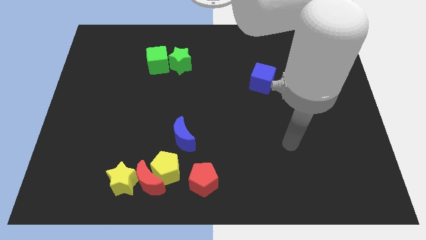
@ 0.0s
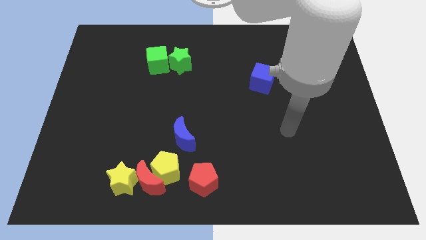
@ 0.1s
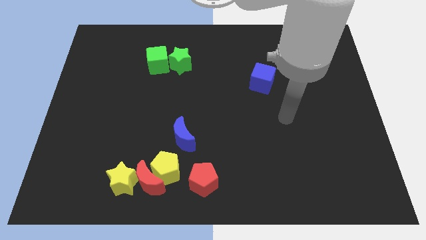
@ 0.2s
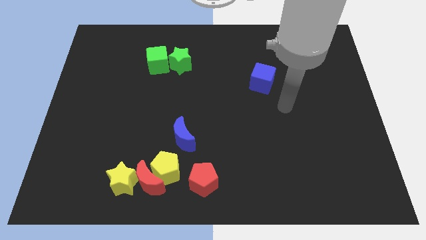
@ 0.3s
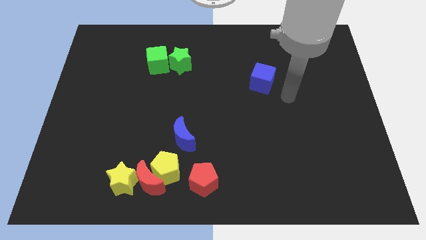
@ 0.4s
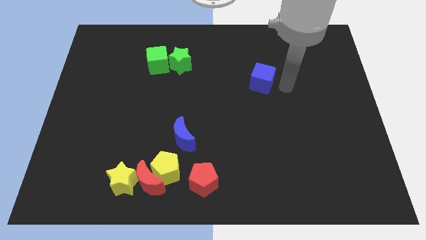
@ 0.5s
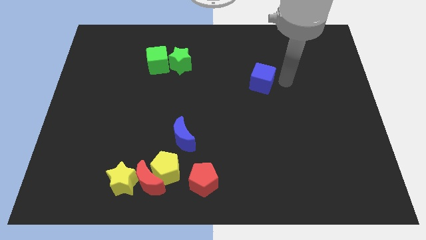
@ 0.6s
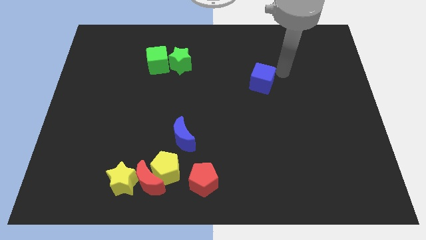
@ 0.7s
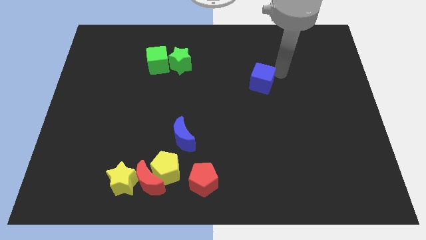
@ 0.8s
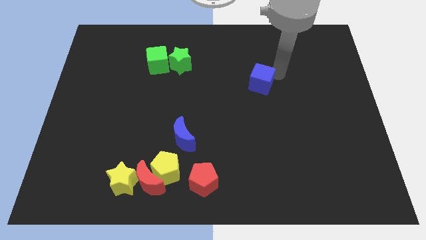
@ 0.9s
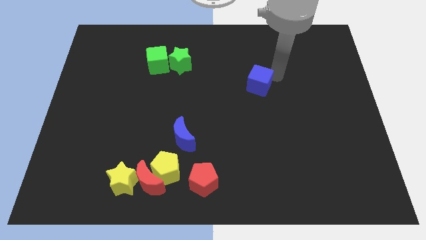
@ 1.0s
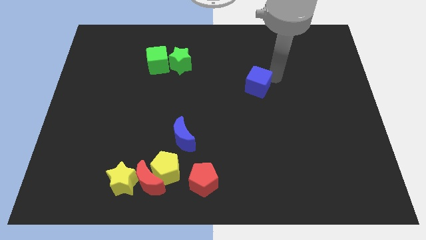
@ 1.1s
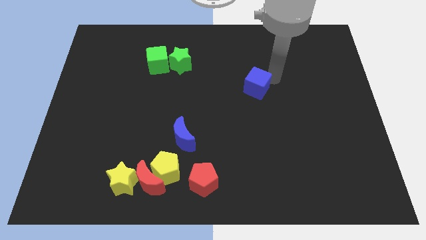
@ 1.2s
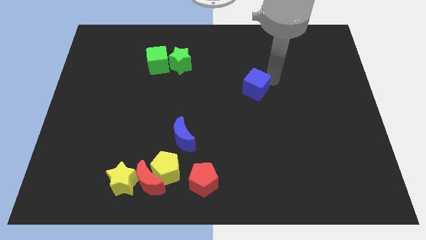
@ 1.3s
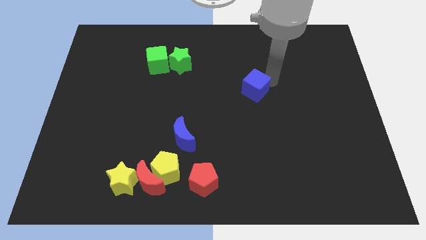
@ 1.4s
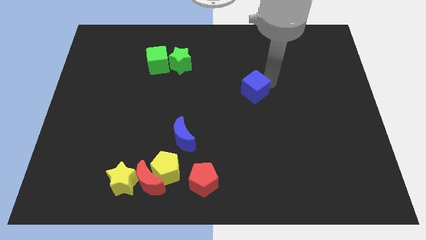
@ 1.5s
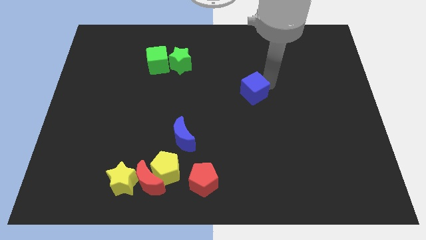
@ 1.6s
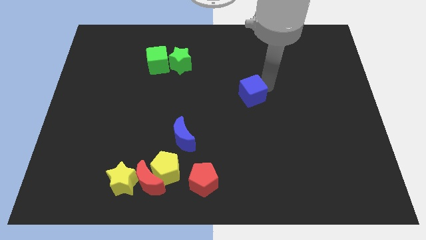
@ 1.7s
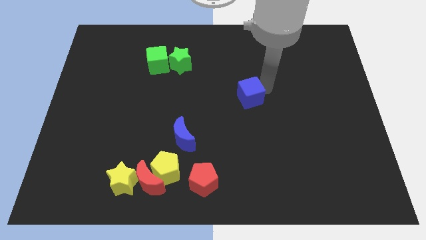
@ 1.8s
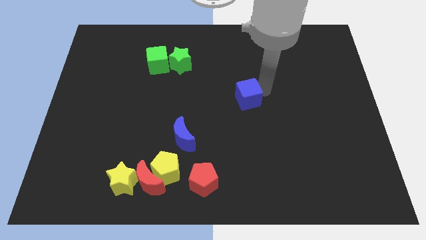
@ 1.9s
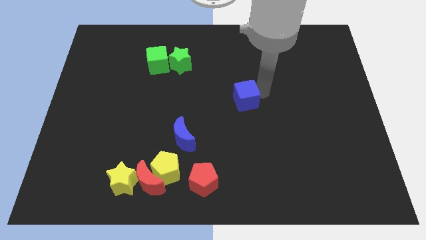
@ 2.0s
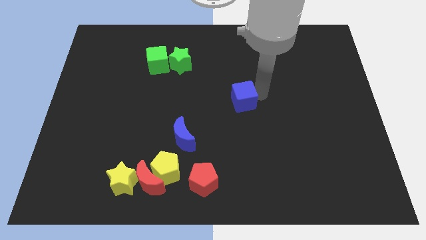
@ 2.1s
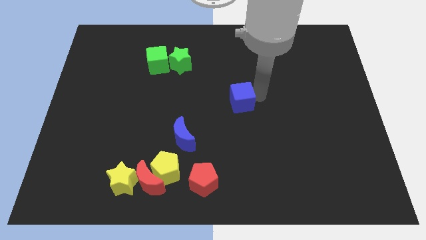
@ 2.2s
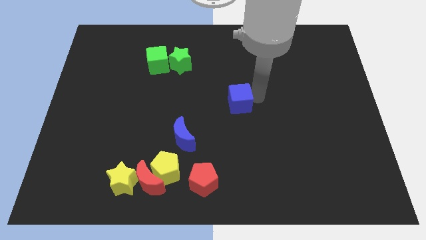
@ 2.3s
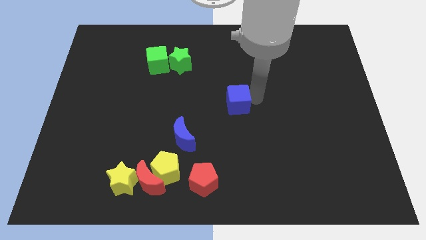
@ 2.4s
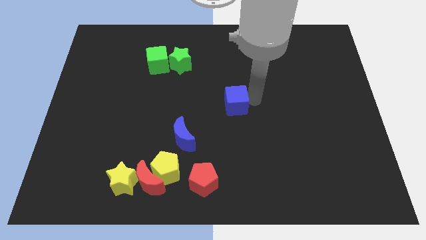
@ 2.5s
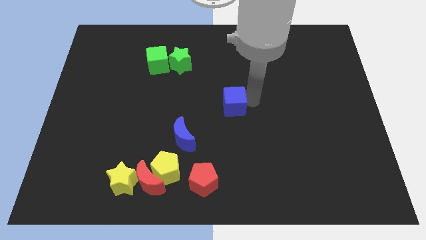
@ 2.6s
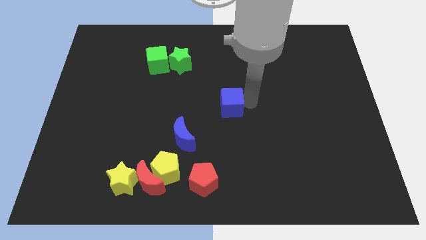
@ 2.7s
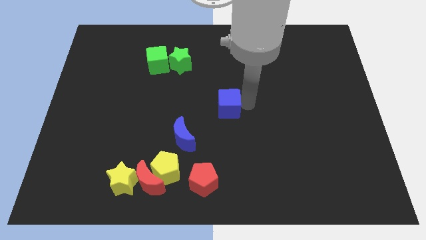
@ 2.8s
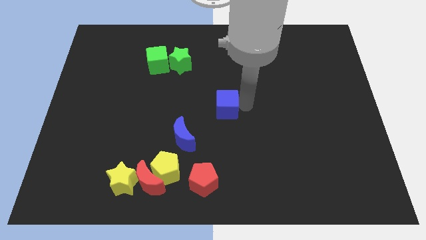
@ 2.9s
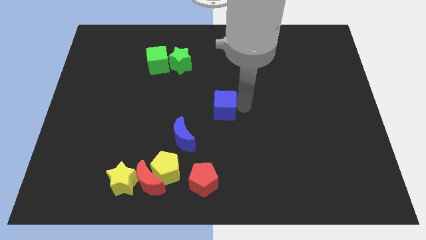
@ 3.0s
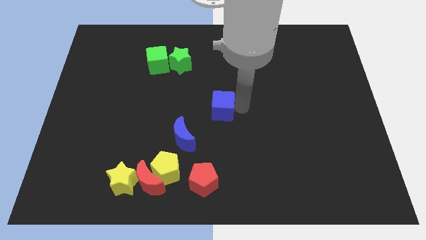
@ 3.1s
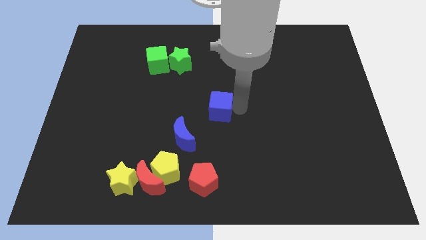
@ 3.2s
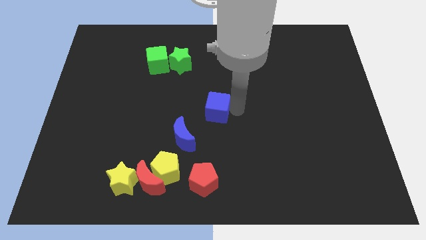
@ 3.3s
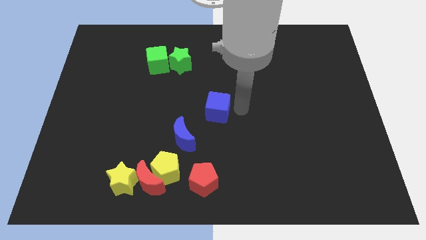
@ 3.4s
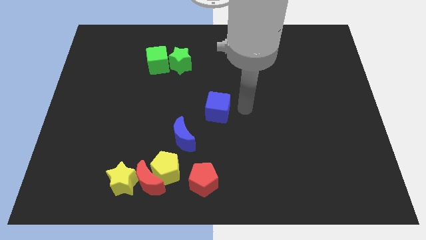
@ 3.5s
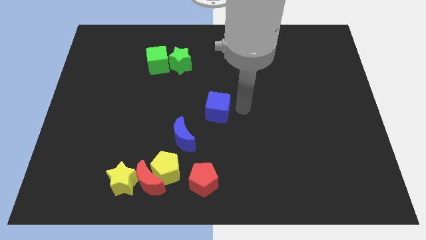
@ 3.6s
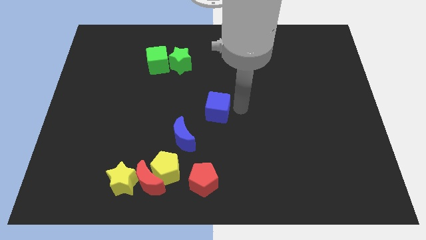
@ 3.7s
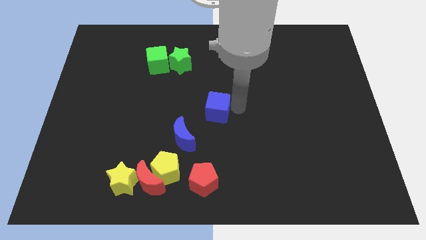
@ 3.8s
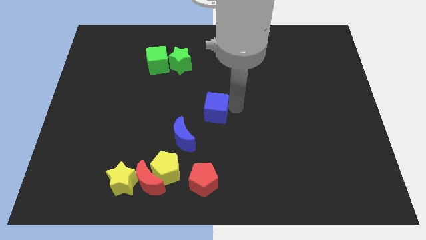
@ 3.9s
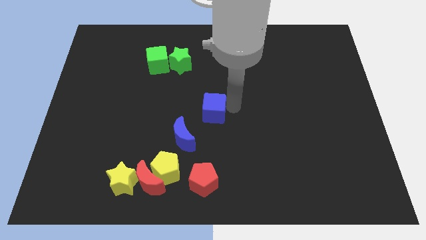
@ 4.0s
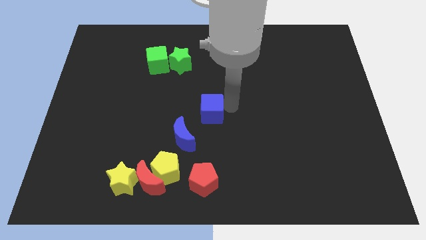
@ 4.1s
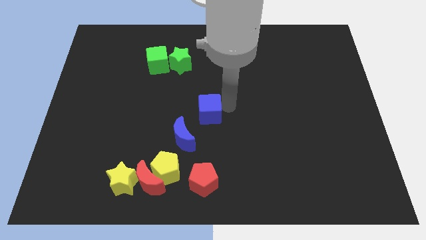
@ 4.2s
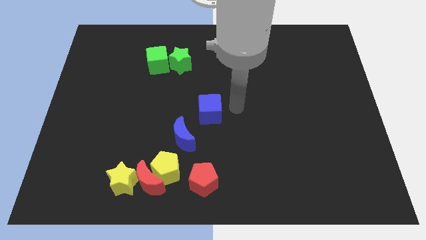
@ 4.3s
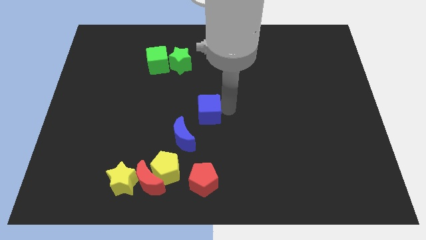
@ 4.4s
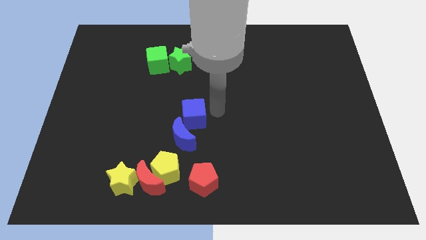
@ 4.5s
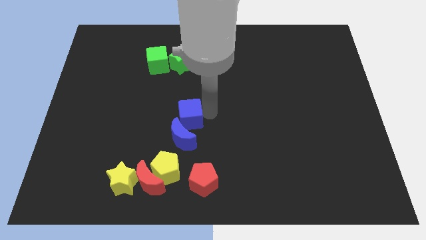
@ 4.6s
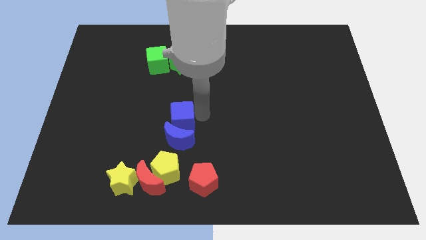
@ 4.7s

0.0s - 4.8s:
push the blue cube to the top left of the blue moon

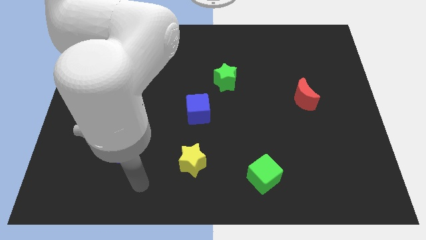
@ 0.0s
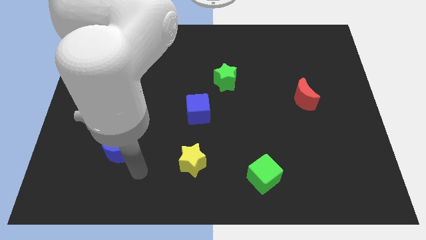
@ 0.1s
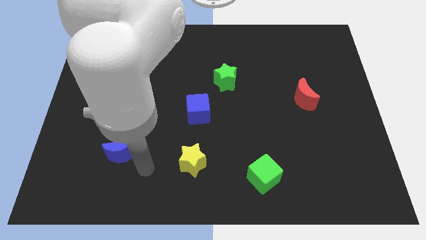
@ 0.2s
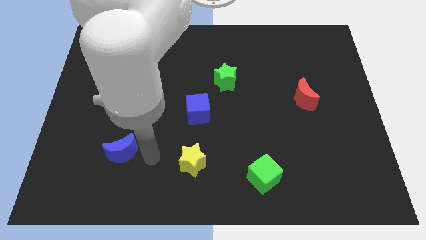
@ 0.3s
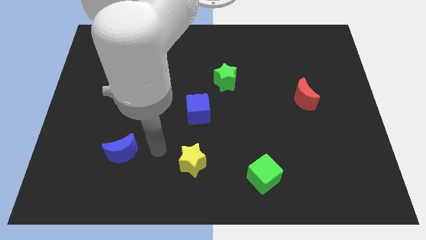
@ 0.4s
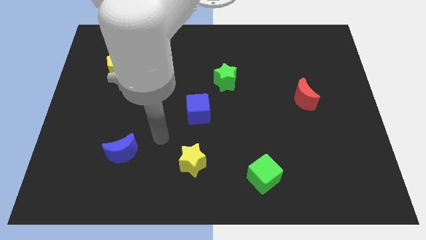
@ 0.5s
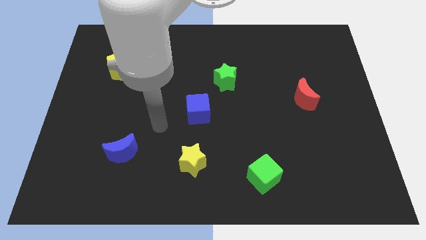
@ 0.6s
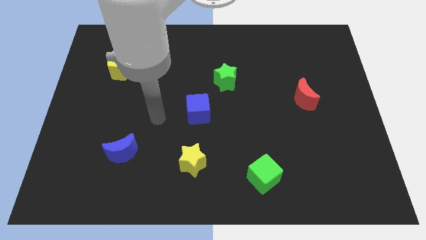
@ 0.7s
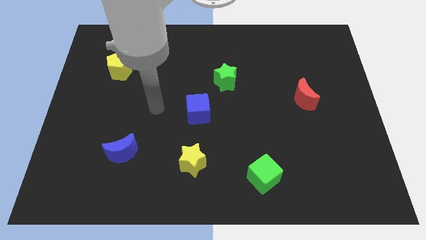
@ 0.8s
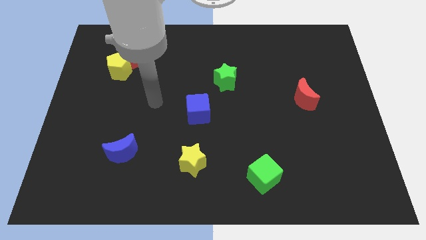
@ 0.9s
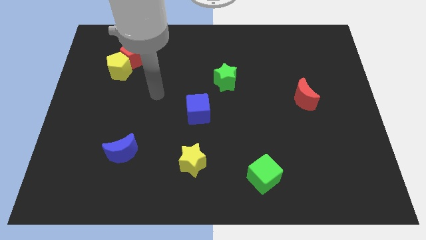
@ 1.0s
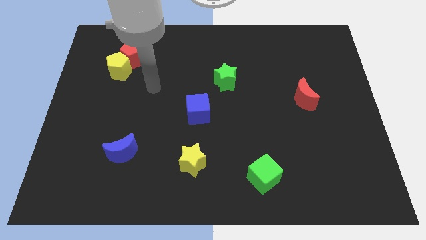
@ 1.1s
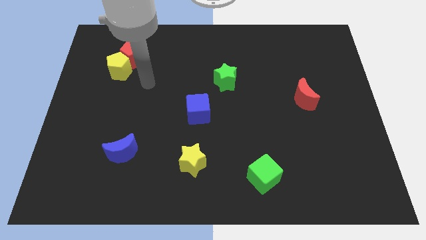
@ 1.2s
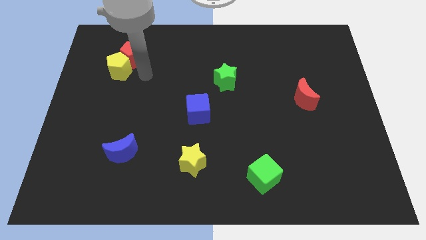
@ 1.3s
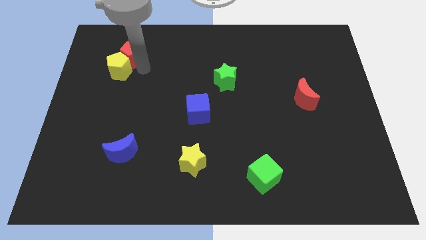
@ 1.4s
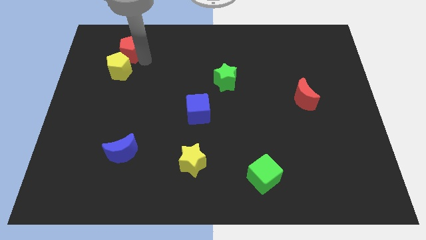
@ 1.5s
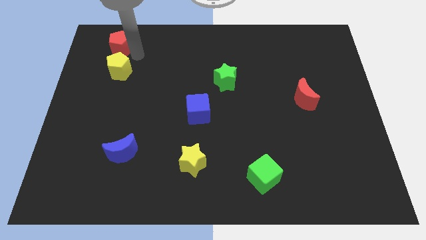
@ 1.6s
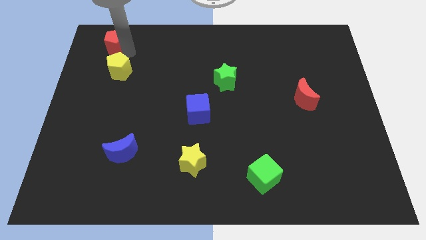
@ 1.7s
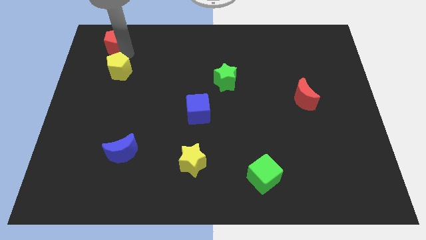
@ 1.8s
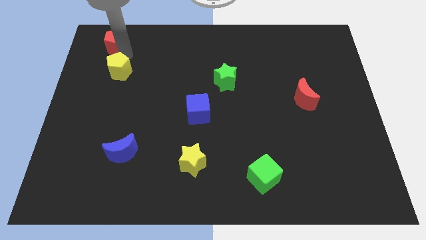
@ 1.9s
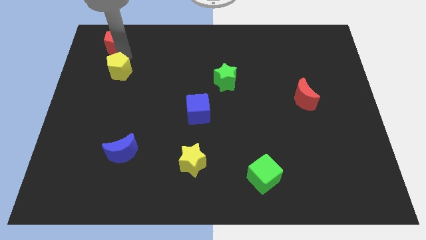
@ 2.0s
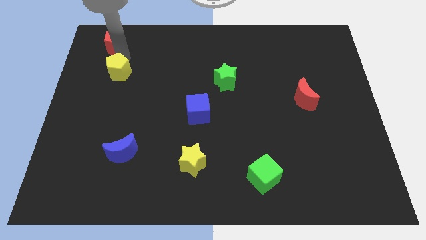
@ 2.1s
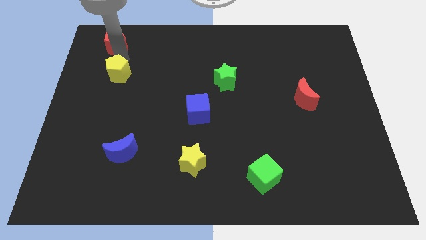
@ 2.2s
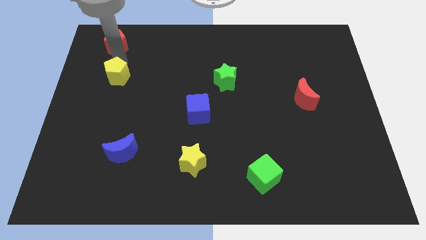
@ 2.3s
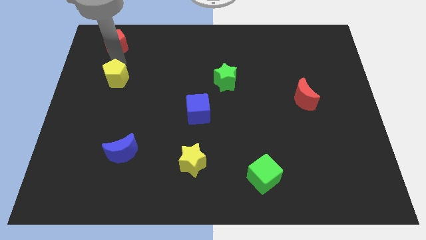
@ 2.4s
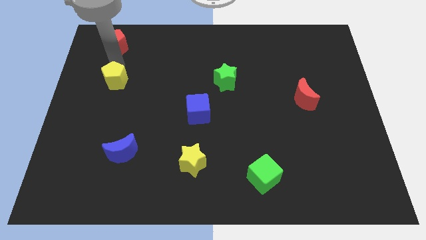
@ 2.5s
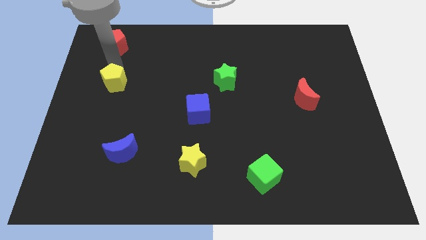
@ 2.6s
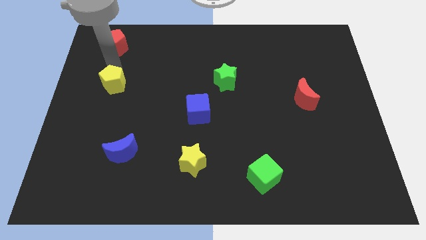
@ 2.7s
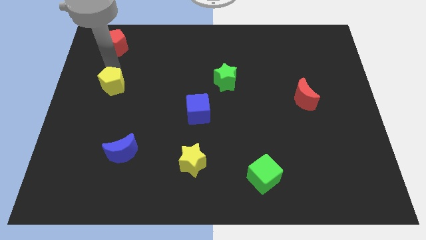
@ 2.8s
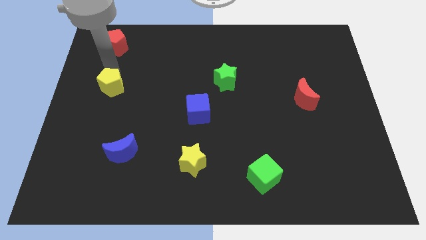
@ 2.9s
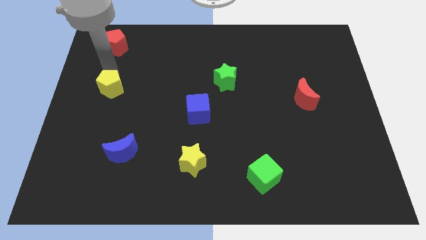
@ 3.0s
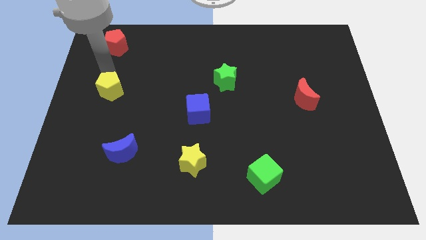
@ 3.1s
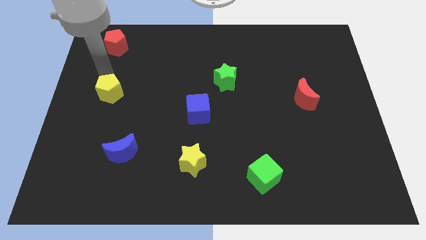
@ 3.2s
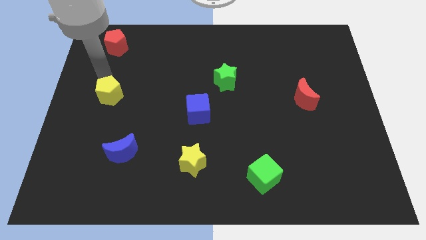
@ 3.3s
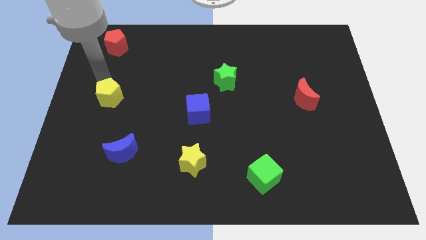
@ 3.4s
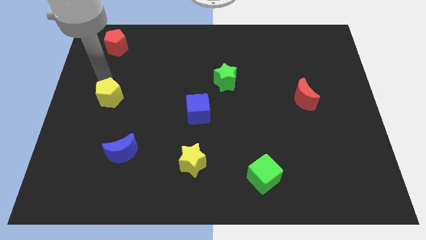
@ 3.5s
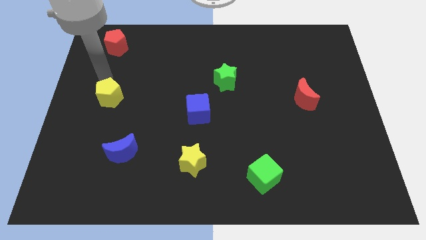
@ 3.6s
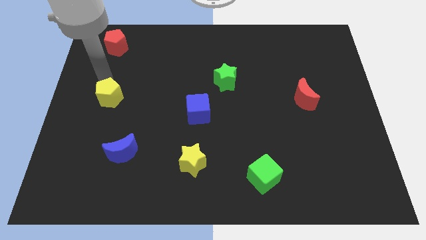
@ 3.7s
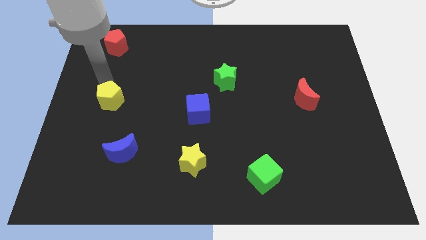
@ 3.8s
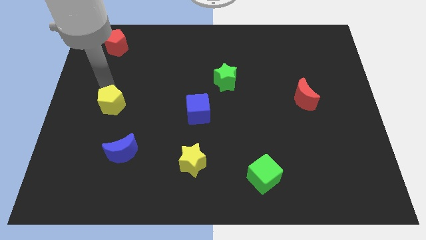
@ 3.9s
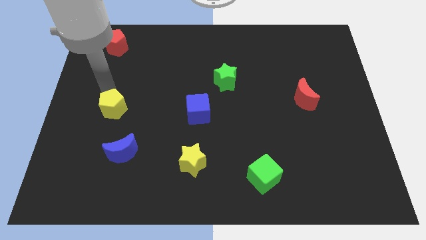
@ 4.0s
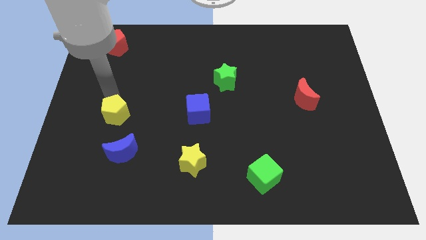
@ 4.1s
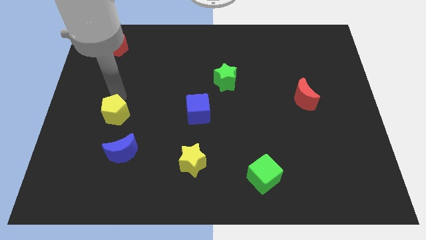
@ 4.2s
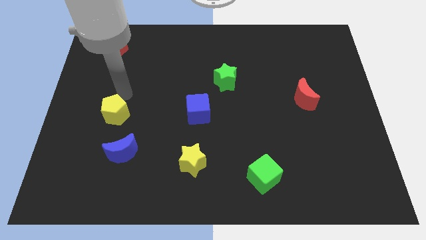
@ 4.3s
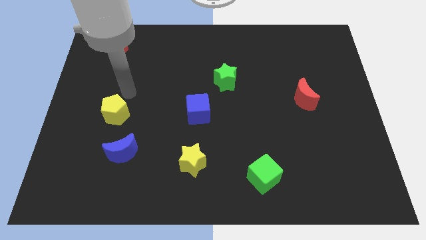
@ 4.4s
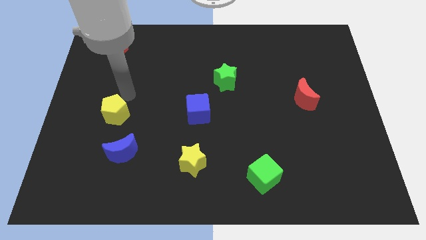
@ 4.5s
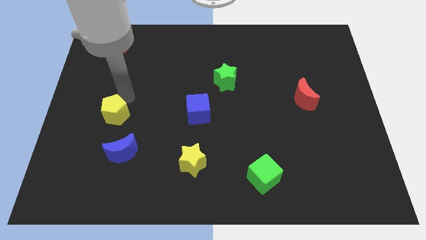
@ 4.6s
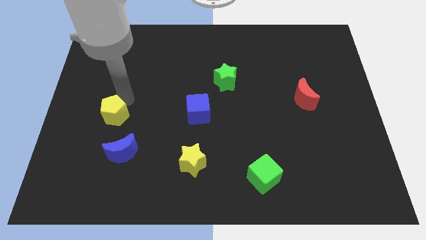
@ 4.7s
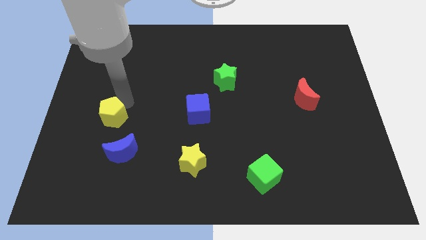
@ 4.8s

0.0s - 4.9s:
put the yellow pentagon diagonally up and to the left of the blue moon
